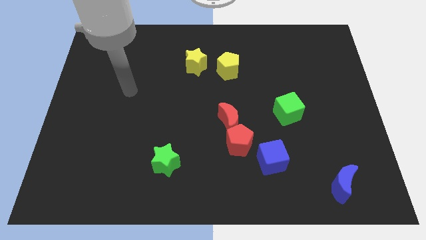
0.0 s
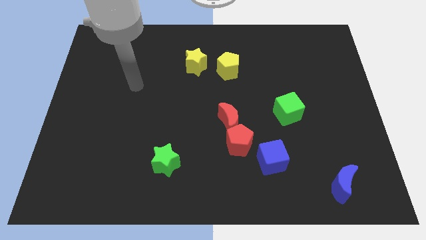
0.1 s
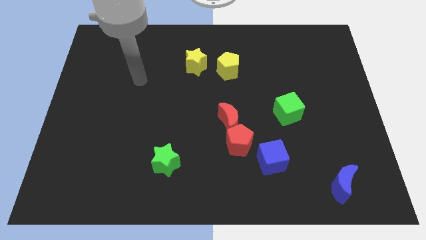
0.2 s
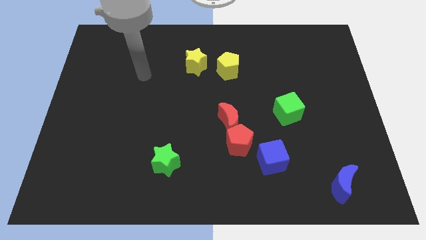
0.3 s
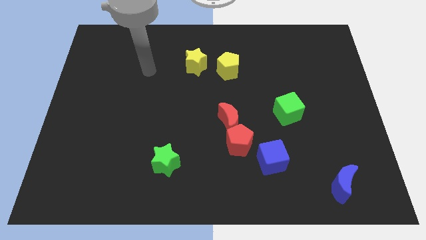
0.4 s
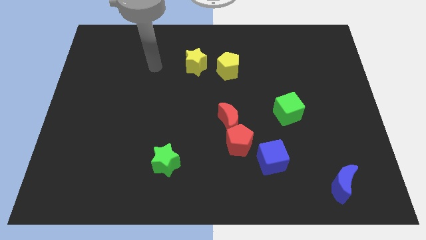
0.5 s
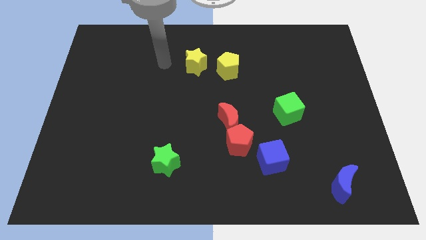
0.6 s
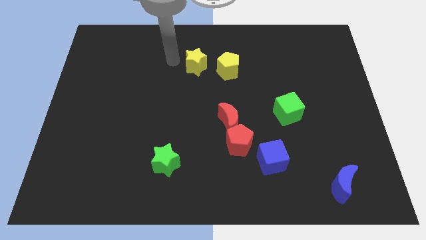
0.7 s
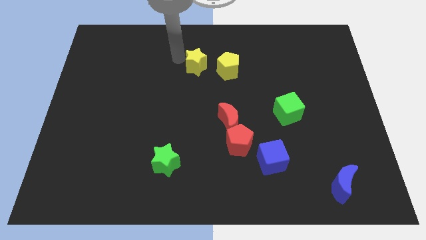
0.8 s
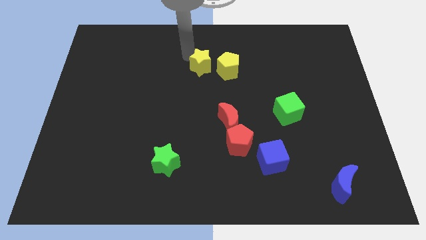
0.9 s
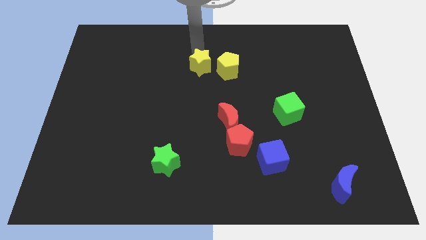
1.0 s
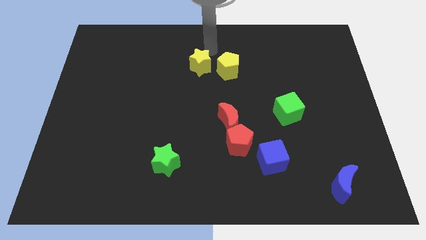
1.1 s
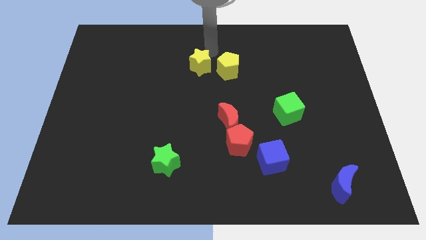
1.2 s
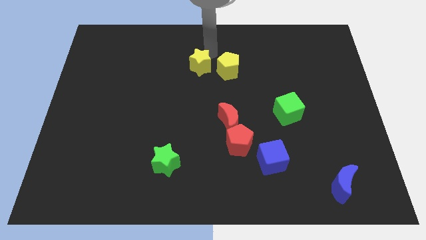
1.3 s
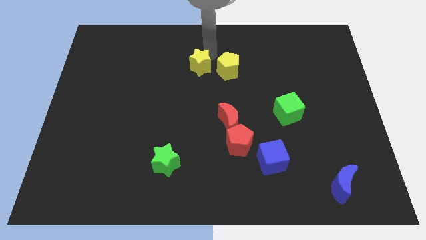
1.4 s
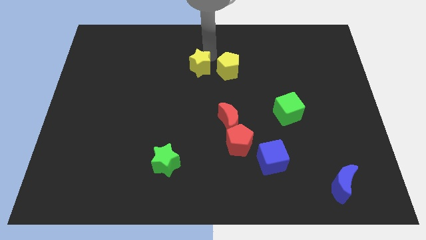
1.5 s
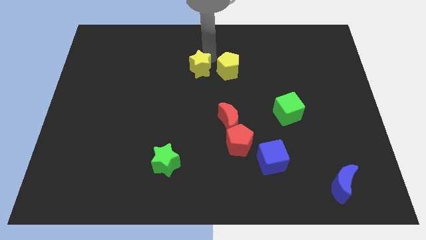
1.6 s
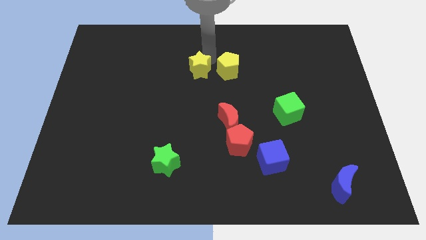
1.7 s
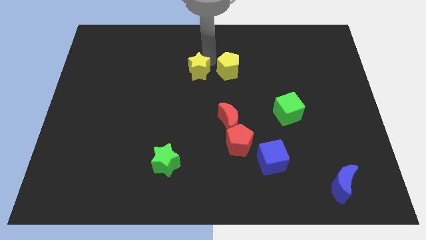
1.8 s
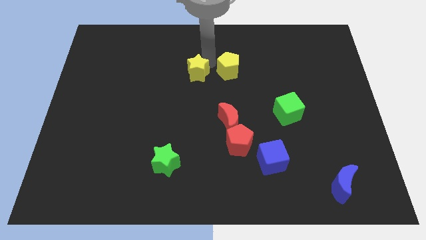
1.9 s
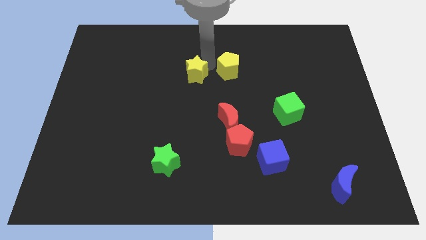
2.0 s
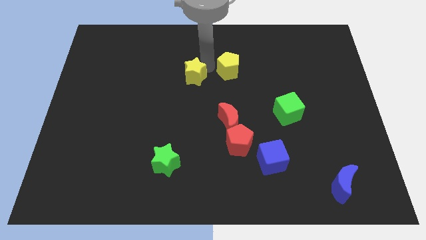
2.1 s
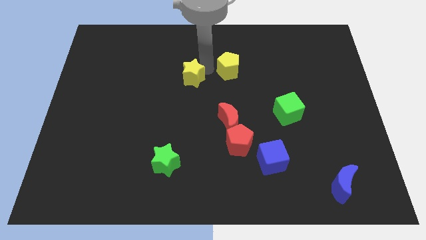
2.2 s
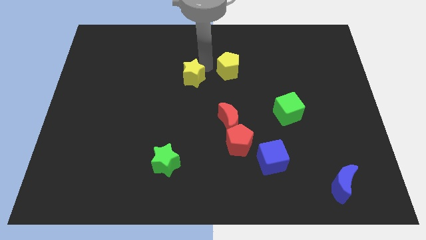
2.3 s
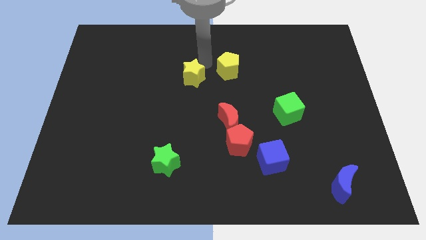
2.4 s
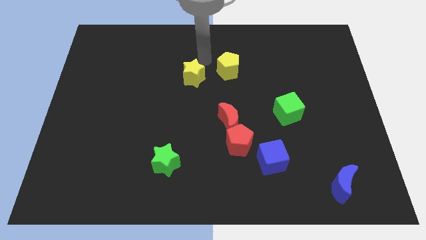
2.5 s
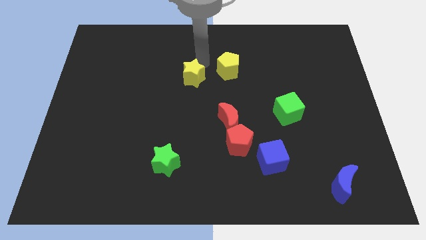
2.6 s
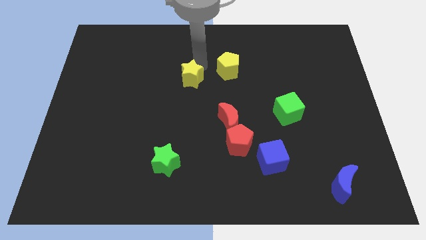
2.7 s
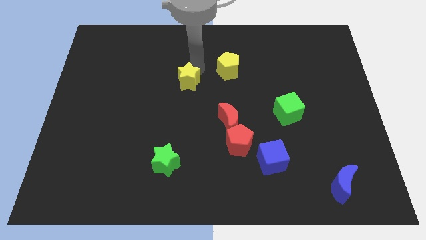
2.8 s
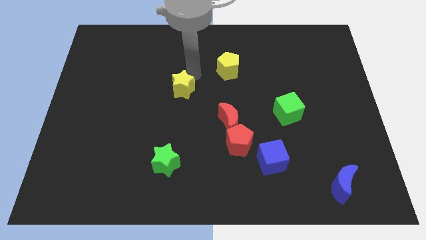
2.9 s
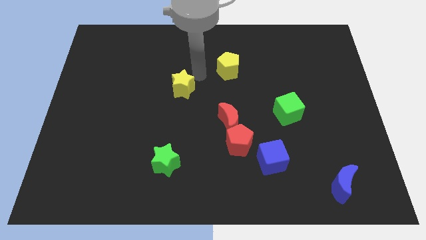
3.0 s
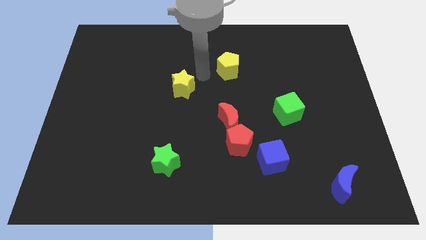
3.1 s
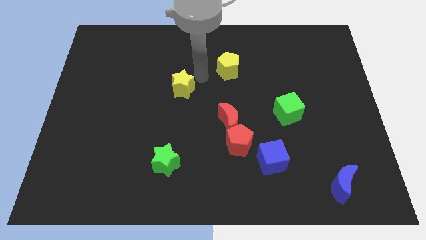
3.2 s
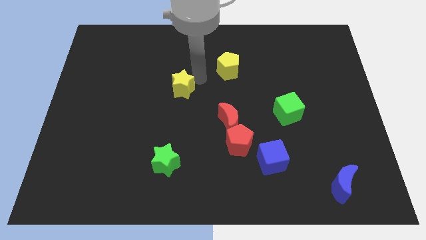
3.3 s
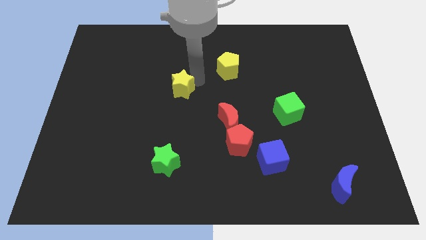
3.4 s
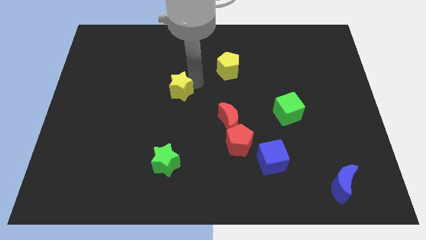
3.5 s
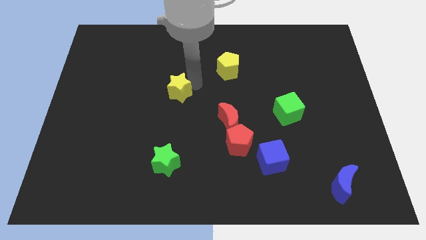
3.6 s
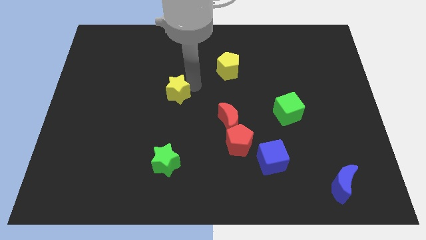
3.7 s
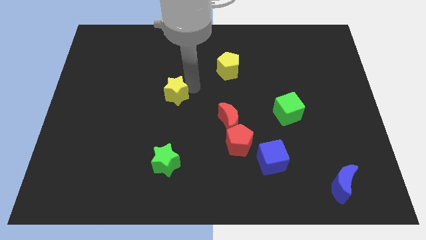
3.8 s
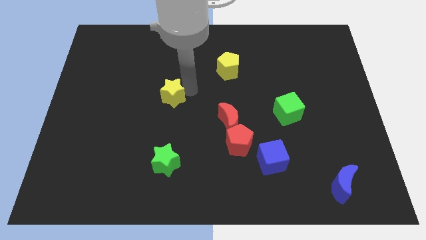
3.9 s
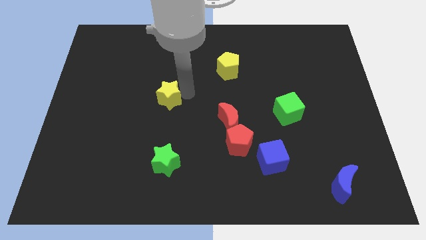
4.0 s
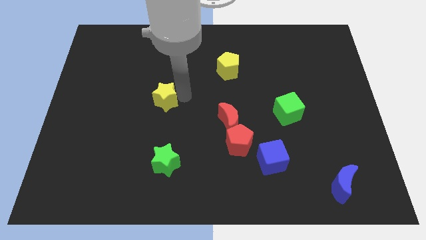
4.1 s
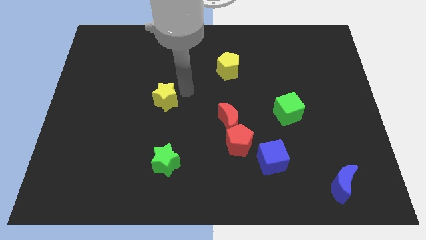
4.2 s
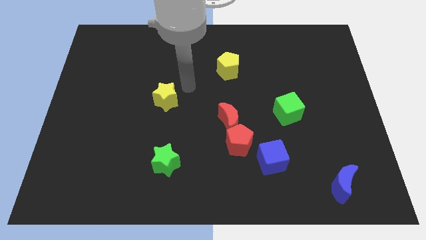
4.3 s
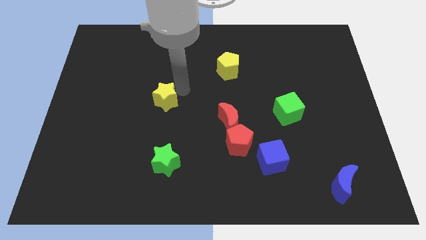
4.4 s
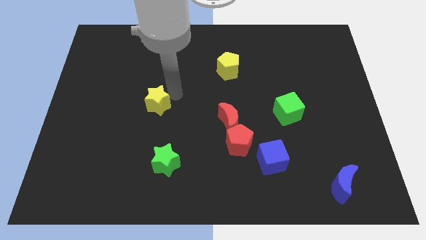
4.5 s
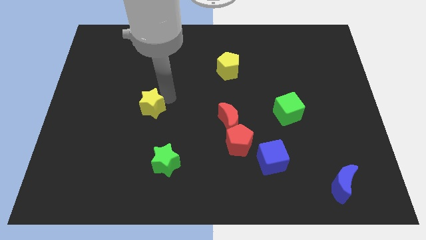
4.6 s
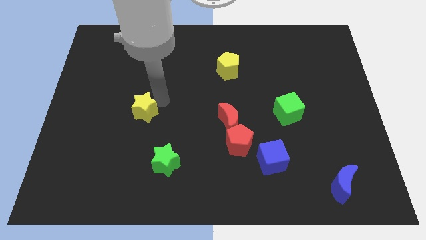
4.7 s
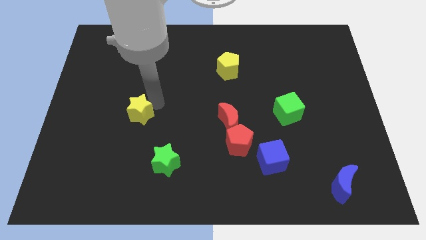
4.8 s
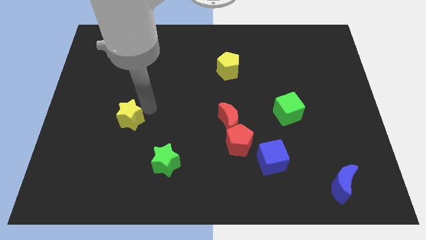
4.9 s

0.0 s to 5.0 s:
move the yellow star downwards and to the left diagonally

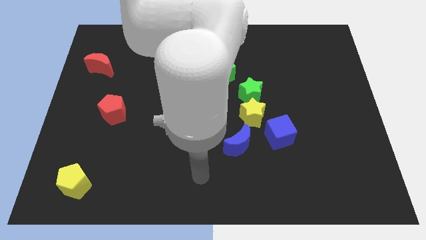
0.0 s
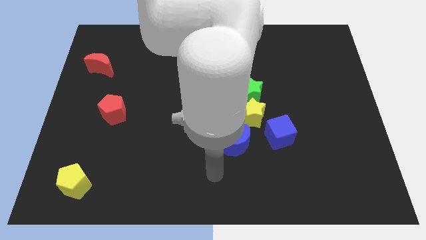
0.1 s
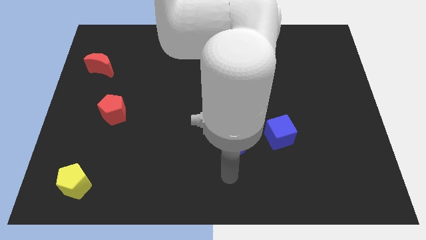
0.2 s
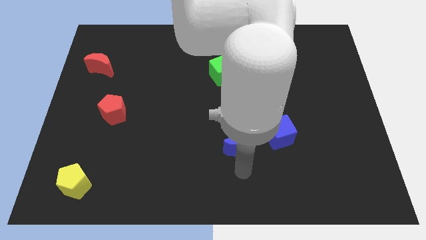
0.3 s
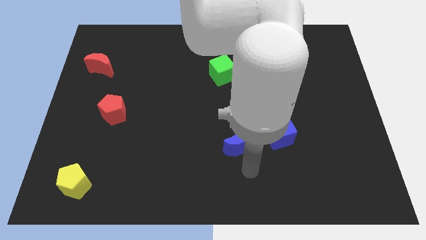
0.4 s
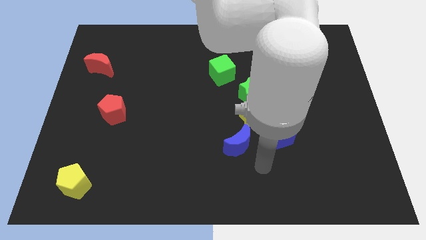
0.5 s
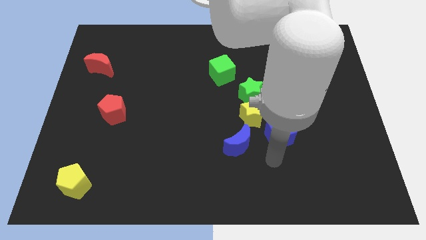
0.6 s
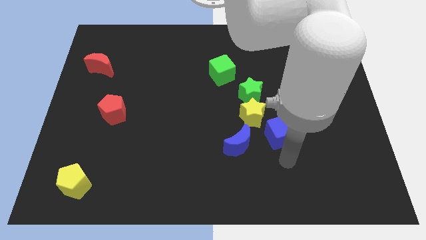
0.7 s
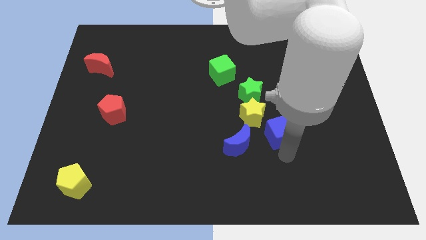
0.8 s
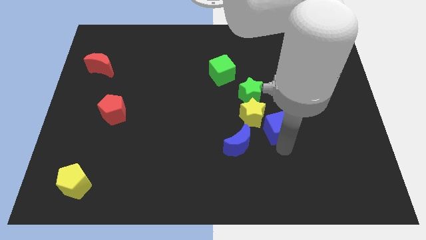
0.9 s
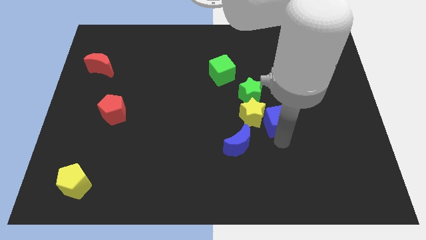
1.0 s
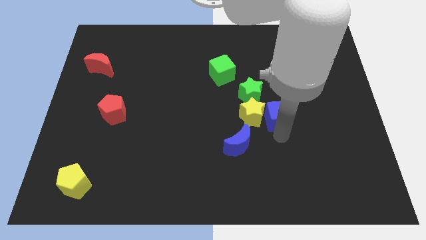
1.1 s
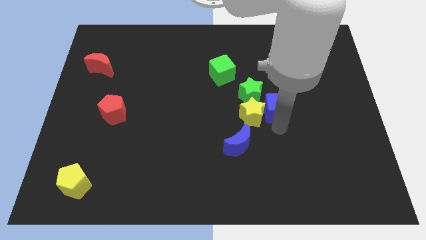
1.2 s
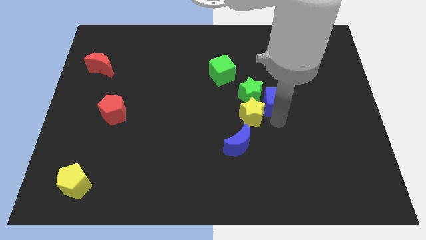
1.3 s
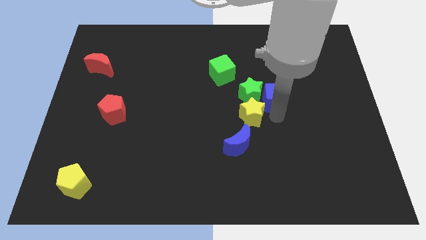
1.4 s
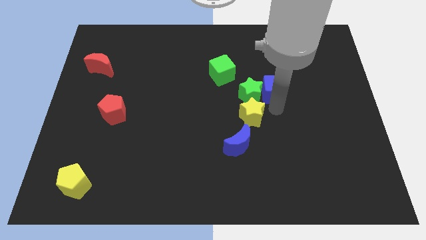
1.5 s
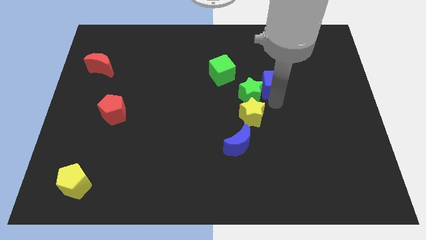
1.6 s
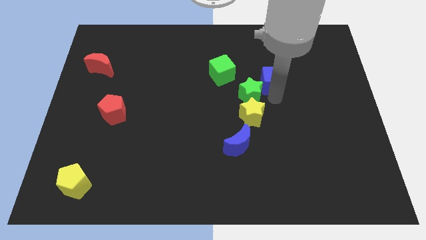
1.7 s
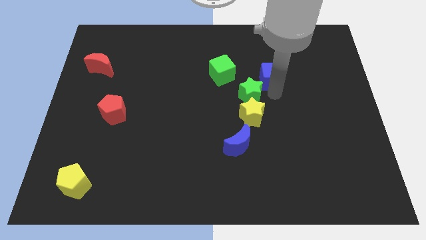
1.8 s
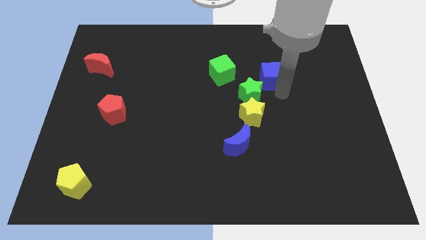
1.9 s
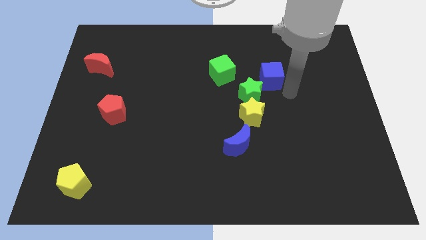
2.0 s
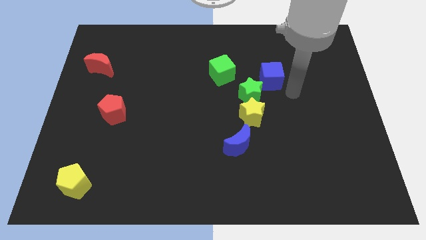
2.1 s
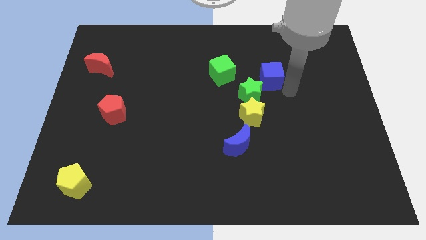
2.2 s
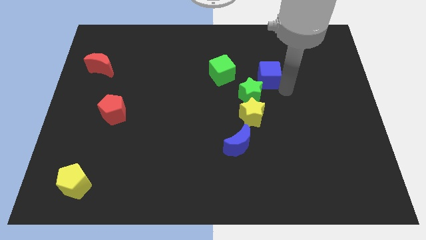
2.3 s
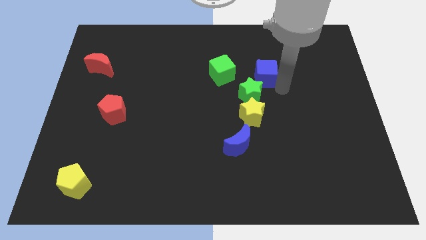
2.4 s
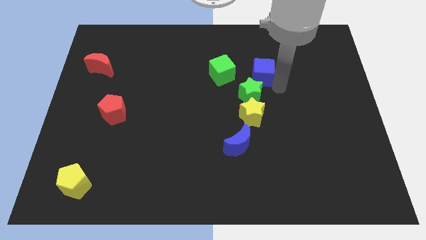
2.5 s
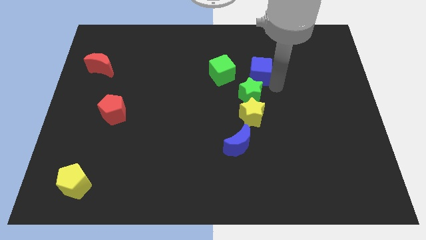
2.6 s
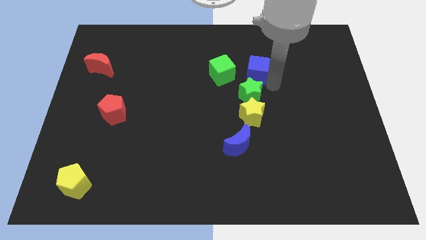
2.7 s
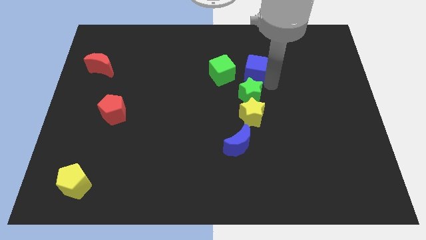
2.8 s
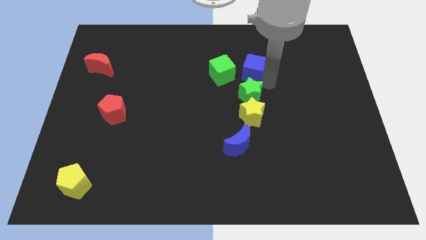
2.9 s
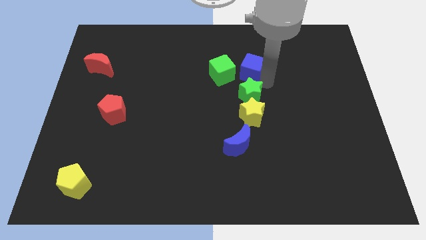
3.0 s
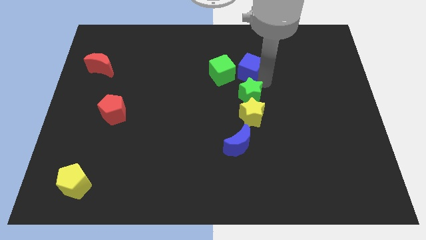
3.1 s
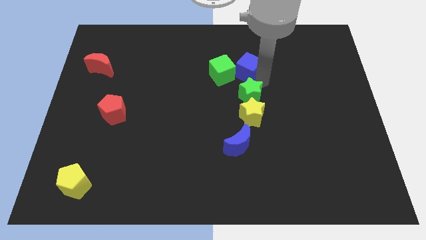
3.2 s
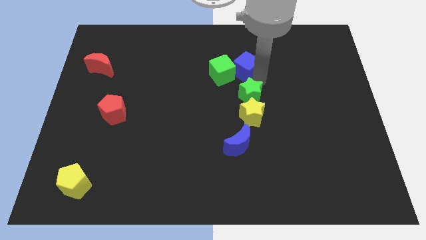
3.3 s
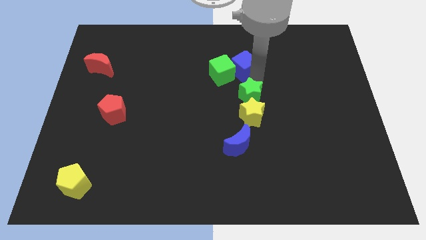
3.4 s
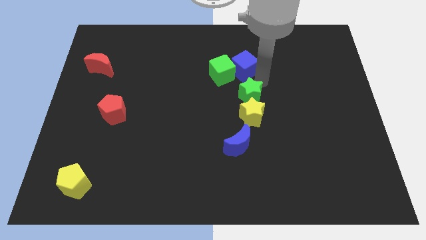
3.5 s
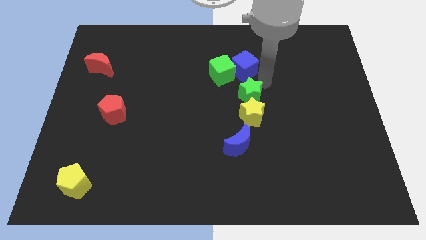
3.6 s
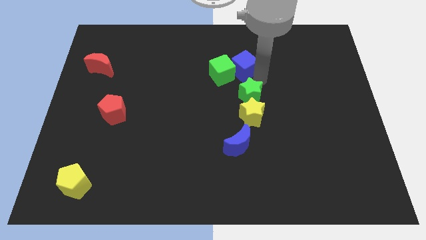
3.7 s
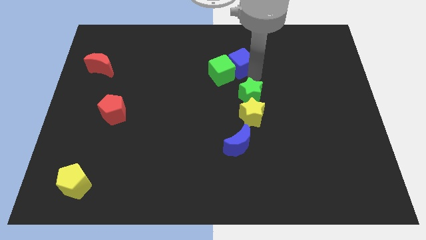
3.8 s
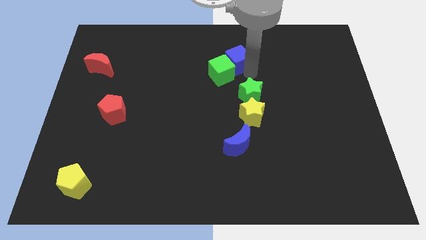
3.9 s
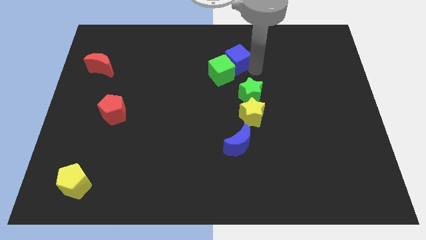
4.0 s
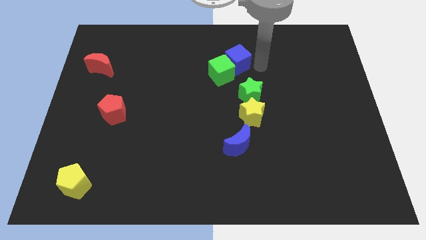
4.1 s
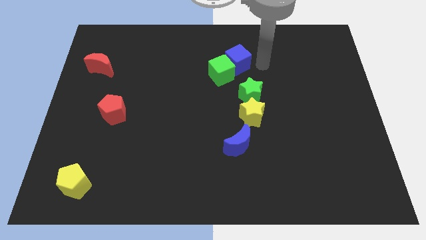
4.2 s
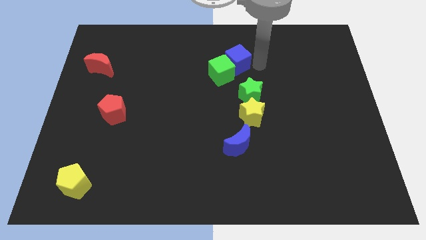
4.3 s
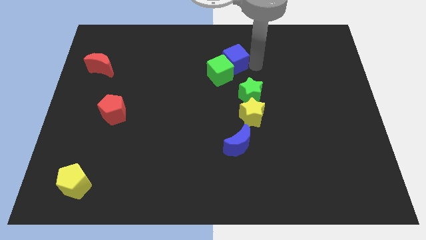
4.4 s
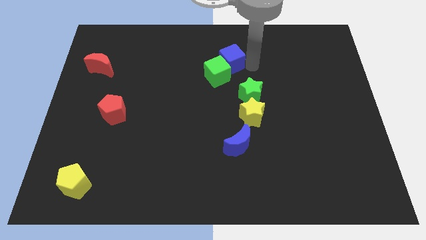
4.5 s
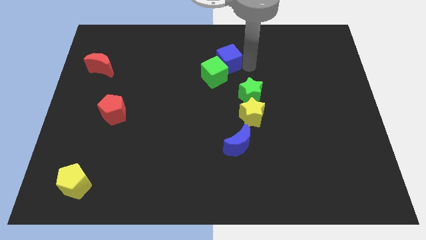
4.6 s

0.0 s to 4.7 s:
move the blue cube up and left diagonally
